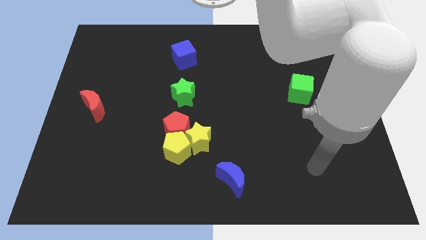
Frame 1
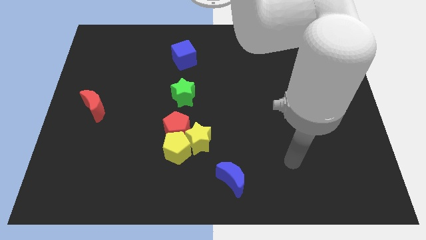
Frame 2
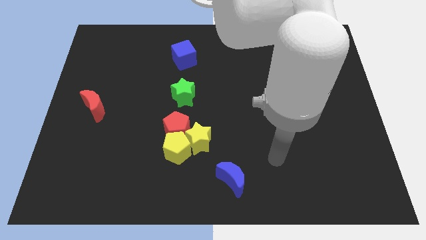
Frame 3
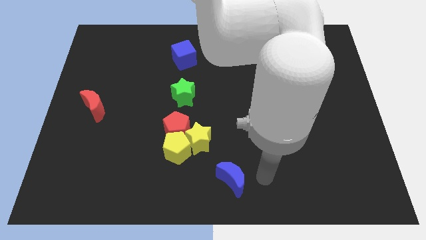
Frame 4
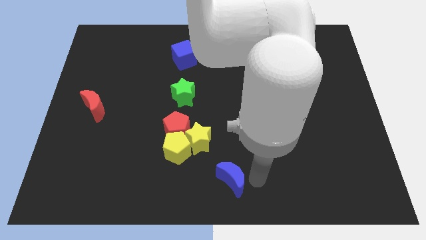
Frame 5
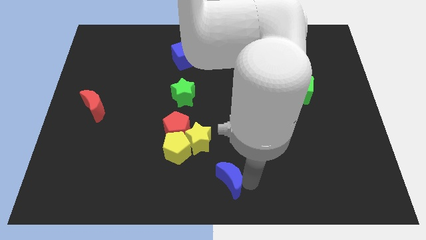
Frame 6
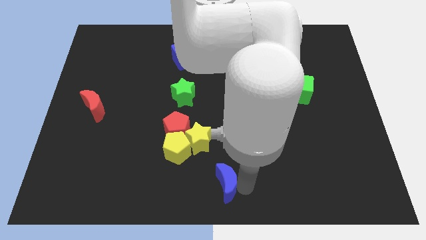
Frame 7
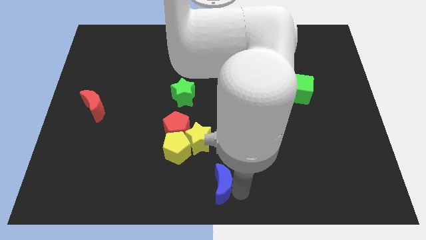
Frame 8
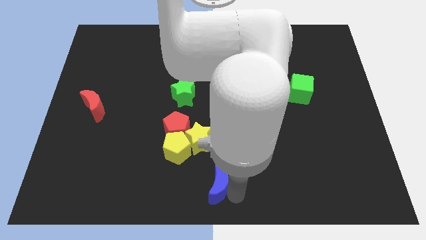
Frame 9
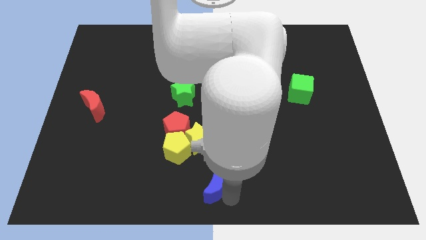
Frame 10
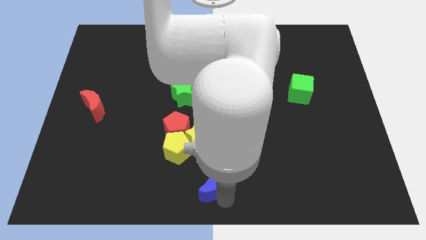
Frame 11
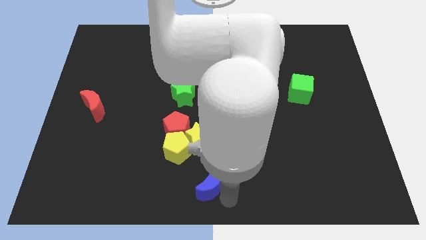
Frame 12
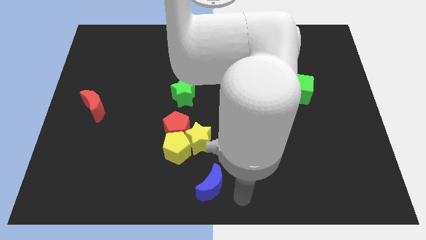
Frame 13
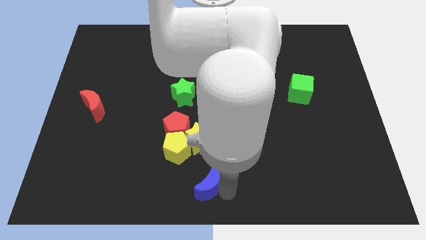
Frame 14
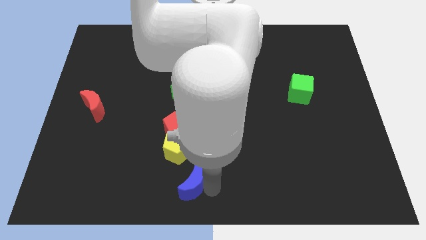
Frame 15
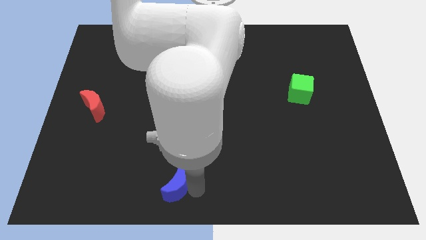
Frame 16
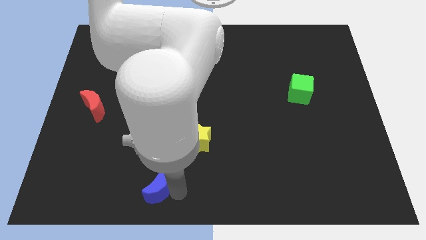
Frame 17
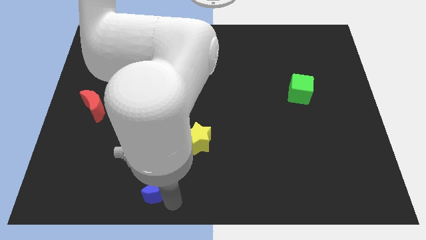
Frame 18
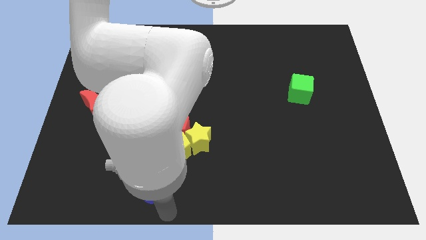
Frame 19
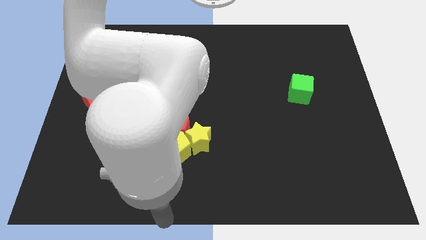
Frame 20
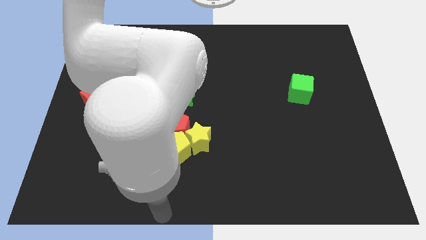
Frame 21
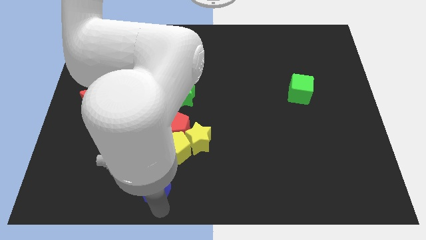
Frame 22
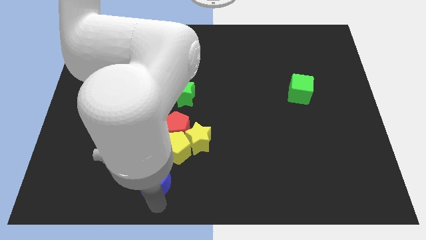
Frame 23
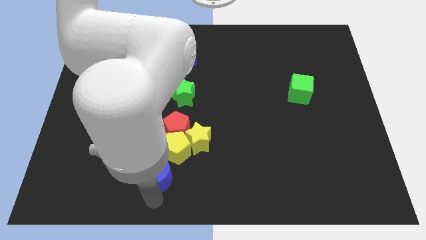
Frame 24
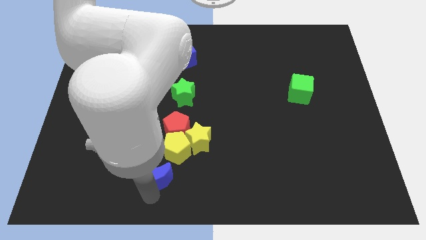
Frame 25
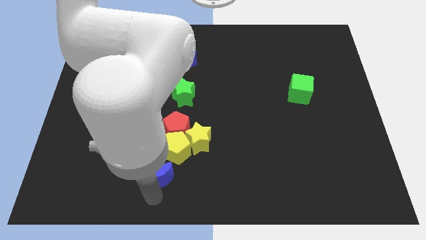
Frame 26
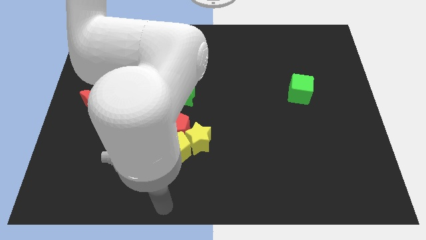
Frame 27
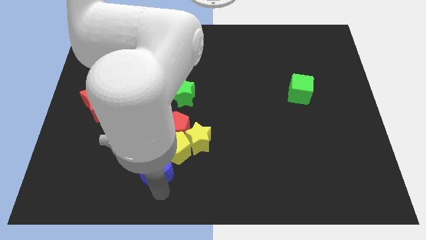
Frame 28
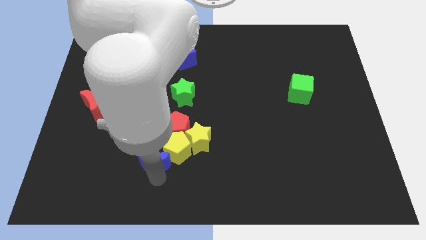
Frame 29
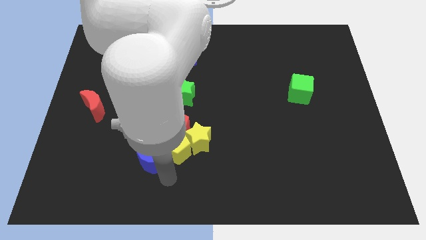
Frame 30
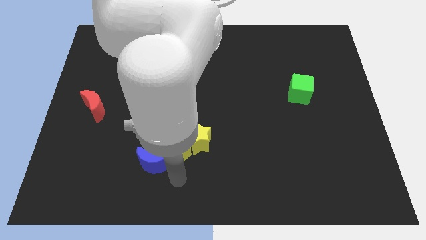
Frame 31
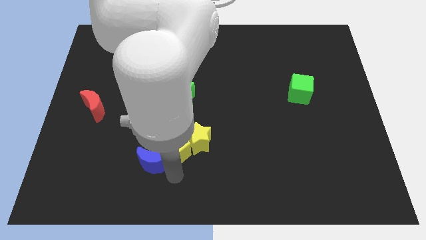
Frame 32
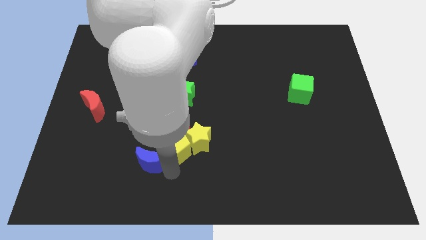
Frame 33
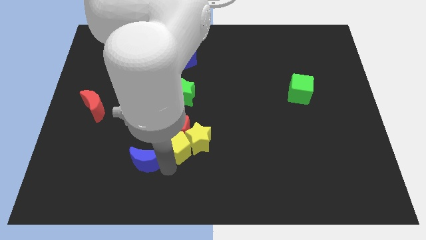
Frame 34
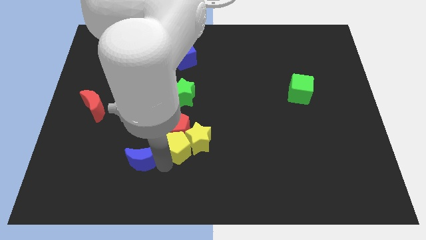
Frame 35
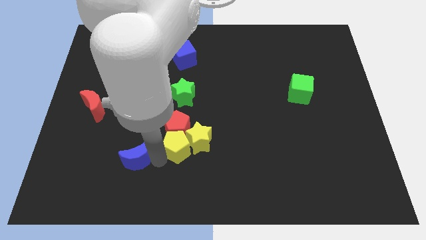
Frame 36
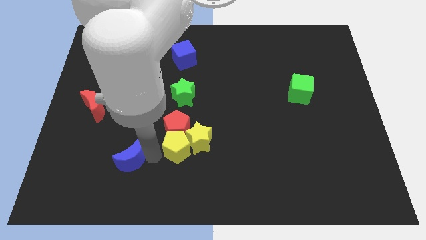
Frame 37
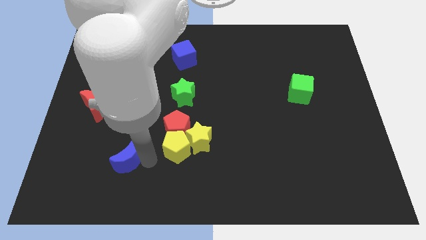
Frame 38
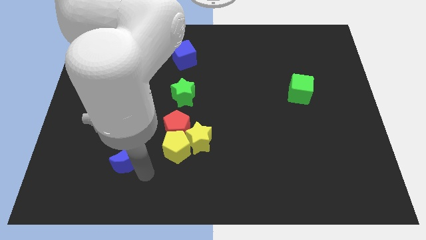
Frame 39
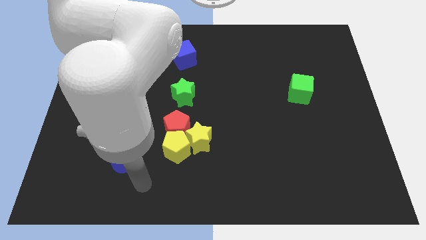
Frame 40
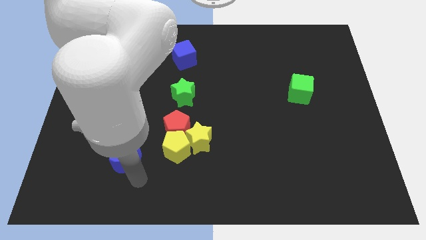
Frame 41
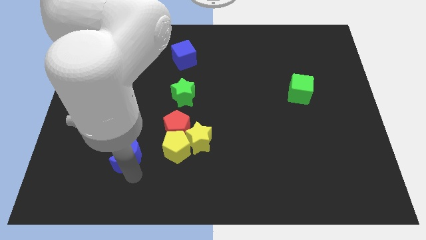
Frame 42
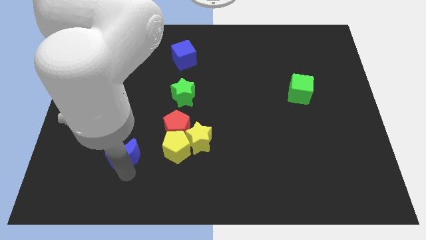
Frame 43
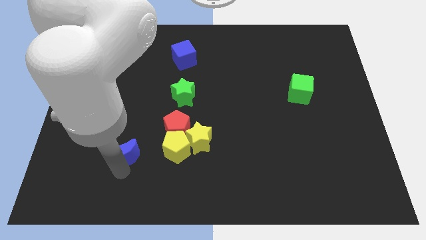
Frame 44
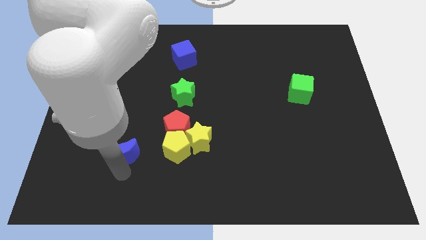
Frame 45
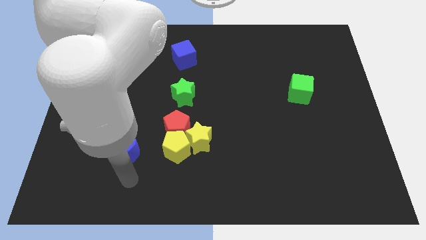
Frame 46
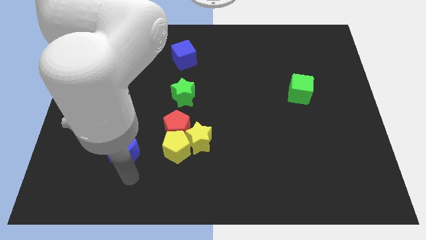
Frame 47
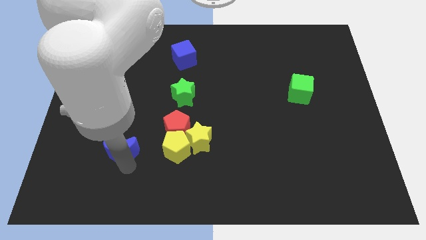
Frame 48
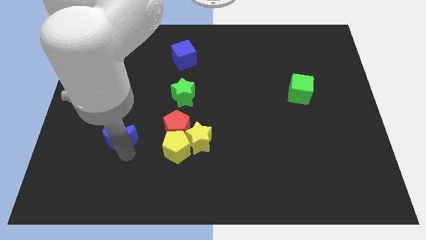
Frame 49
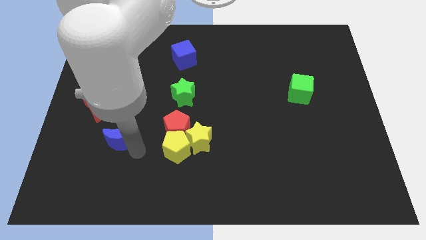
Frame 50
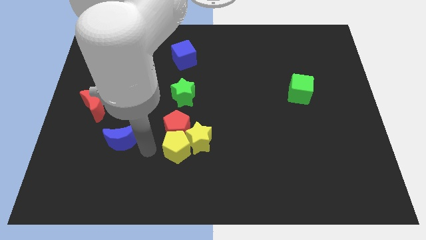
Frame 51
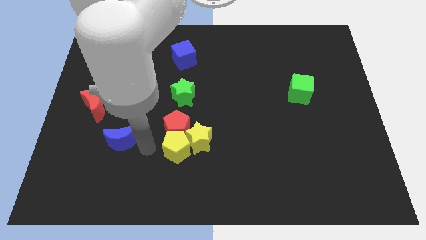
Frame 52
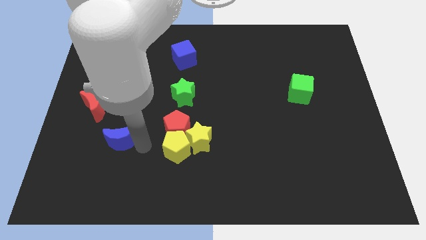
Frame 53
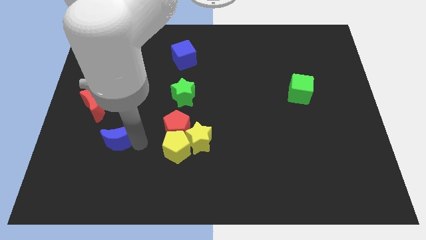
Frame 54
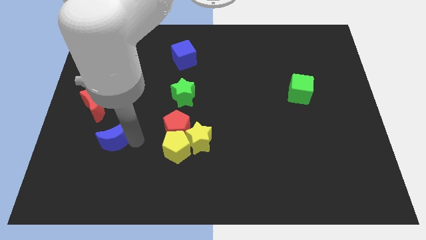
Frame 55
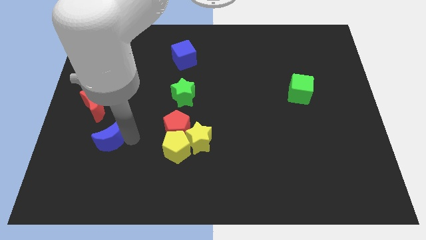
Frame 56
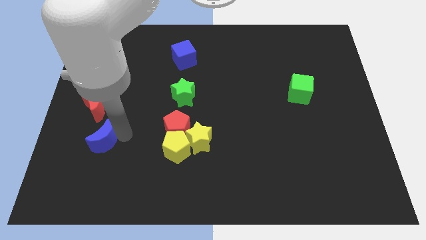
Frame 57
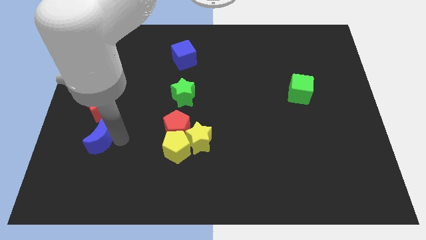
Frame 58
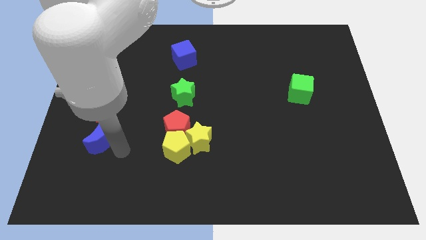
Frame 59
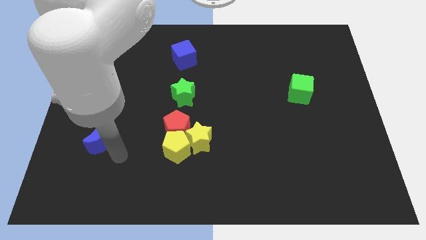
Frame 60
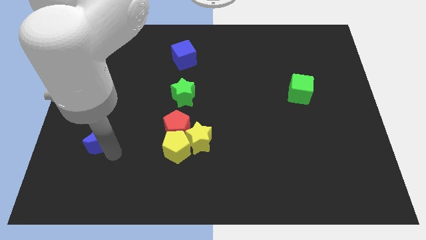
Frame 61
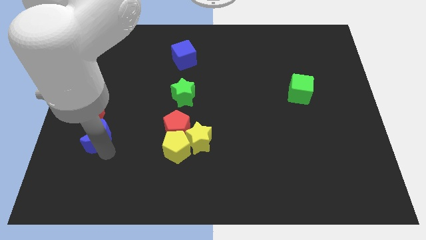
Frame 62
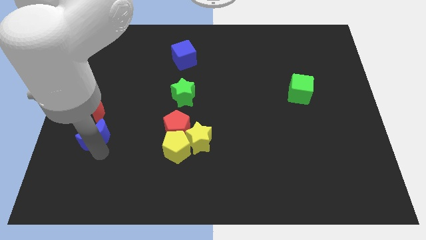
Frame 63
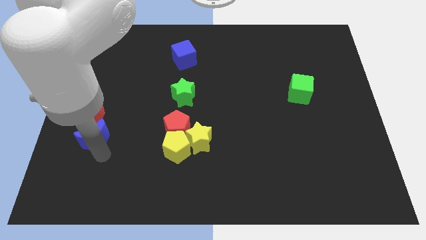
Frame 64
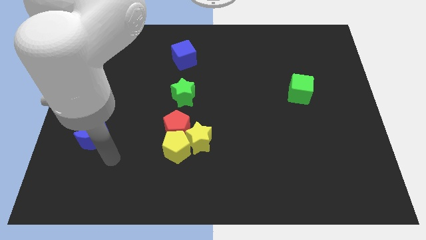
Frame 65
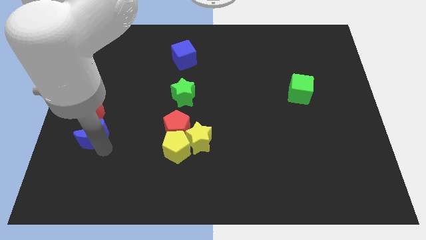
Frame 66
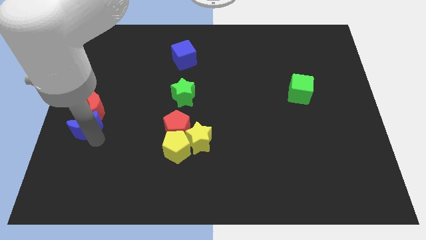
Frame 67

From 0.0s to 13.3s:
move the blue moon to the left side of the board
